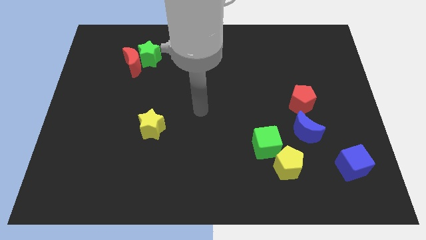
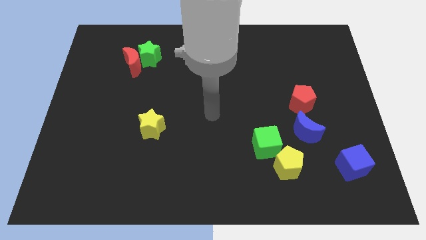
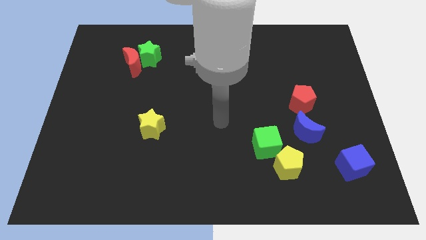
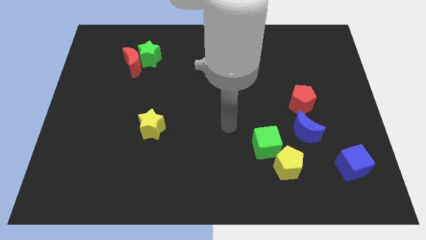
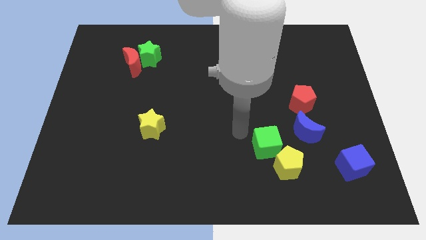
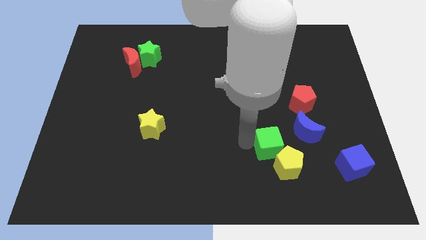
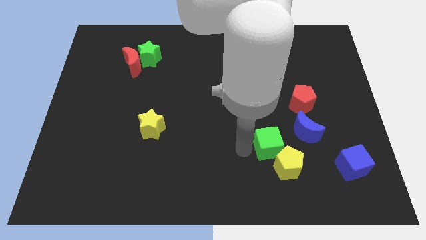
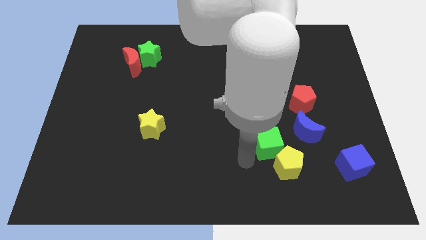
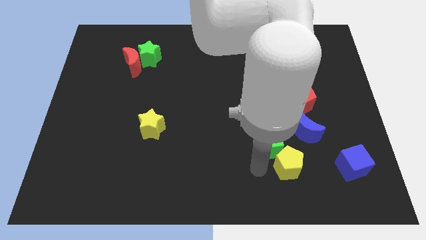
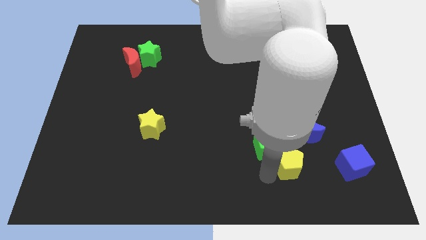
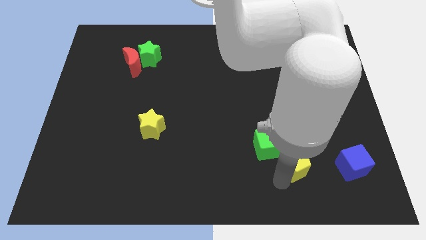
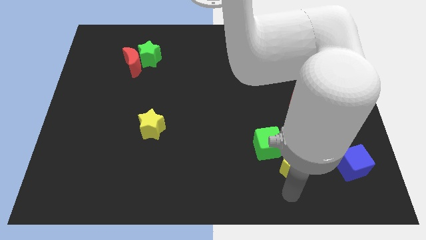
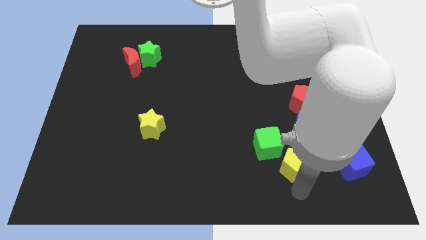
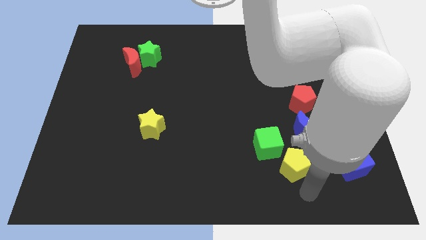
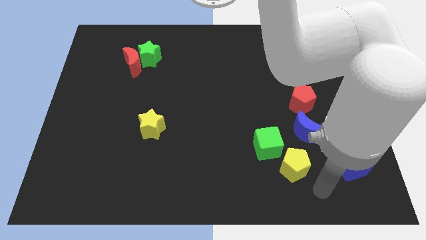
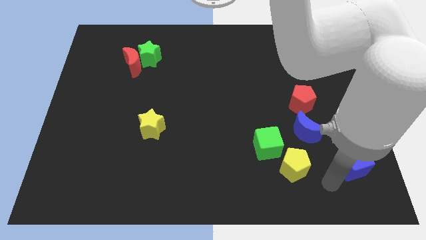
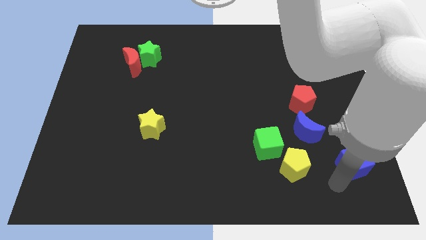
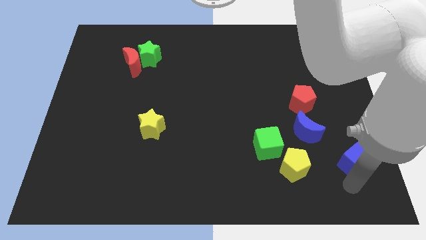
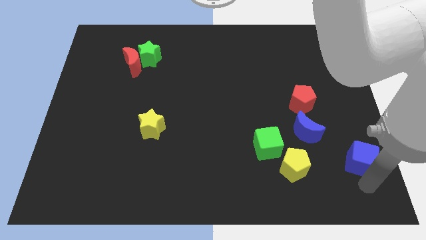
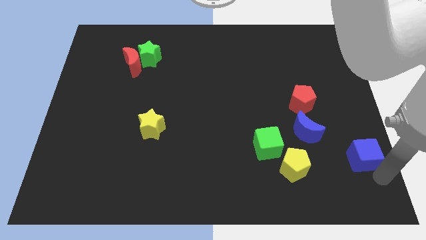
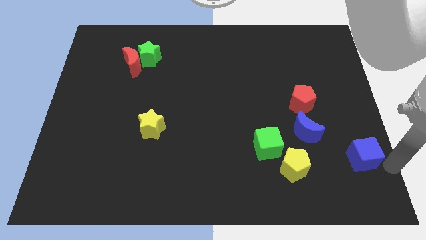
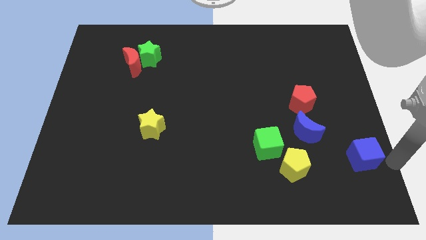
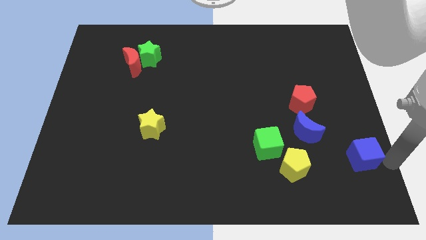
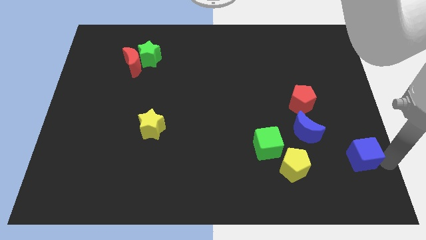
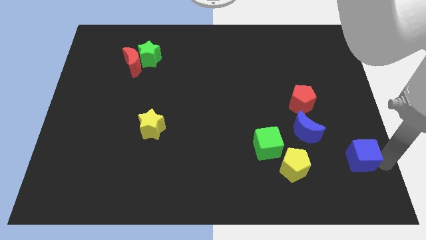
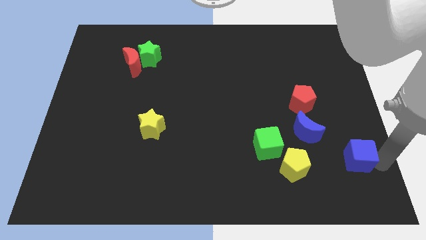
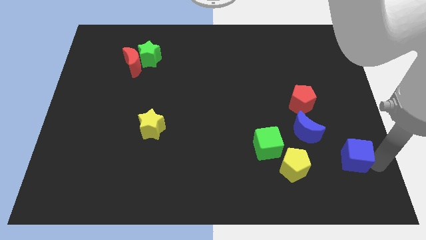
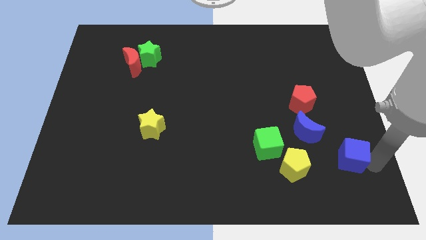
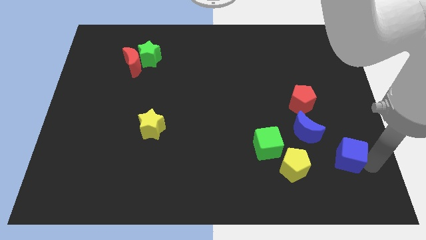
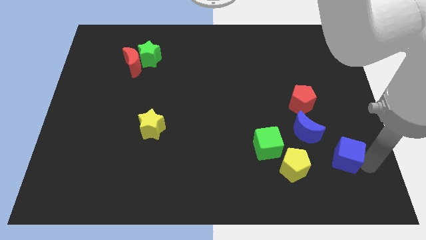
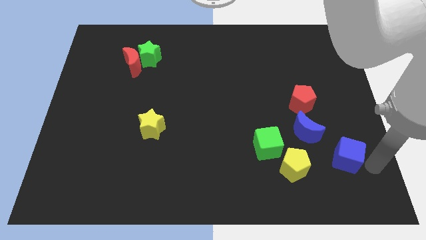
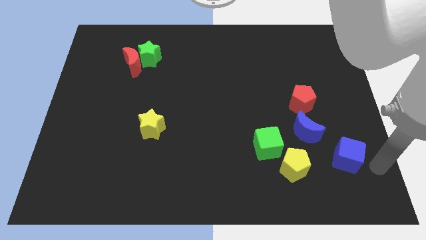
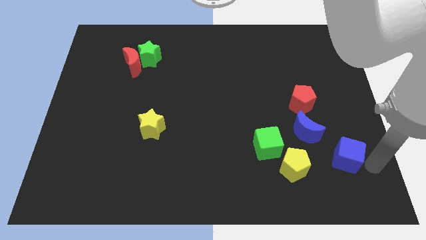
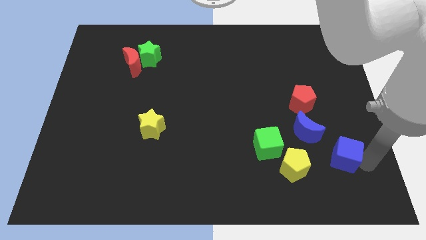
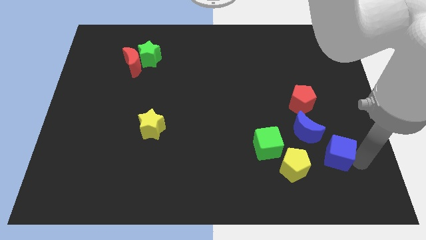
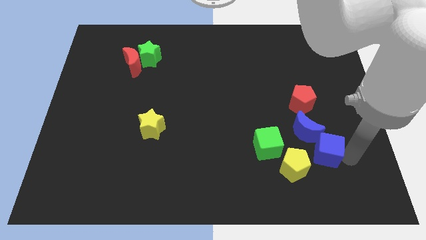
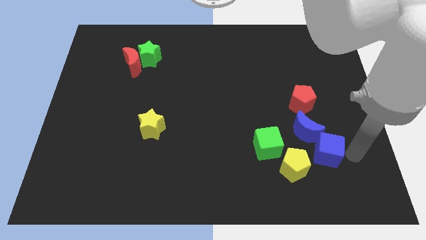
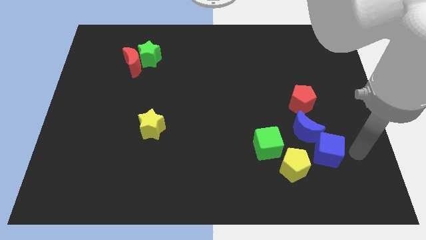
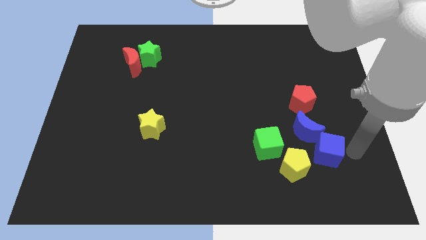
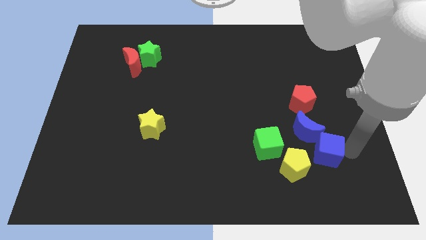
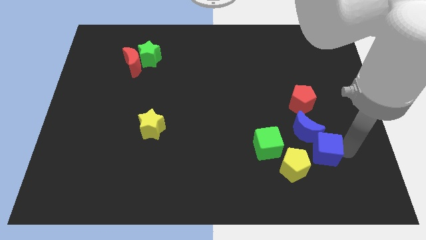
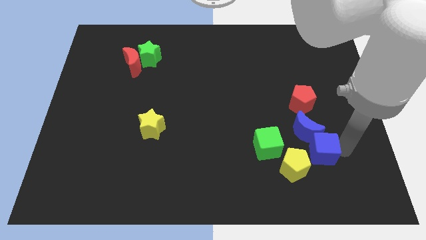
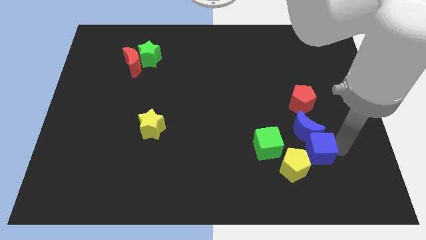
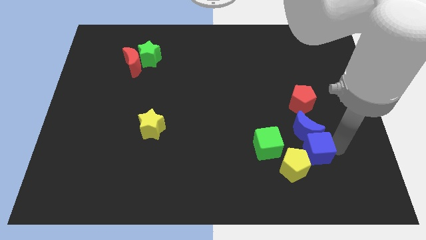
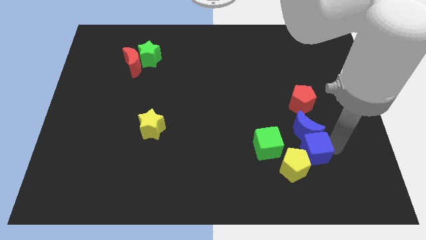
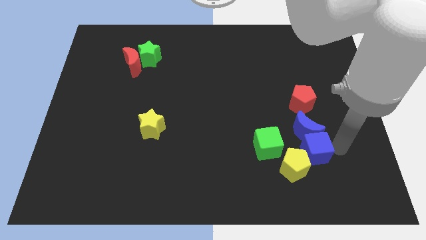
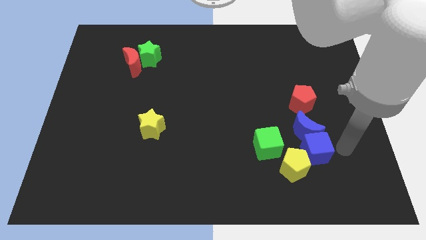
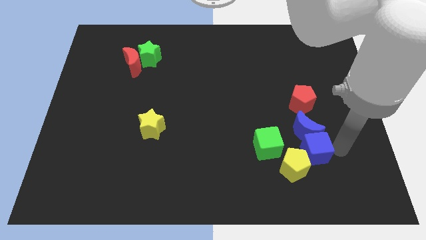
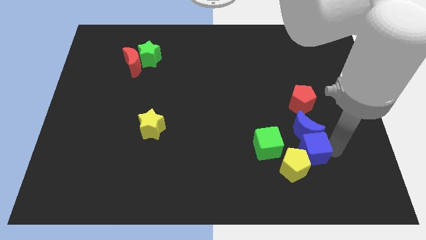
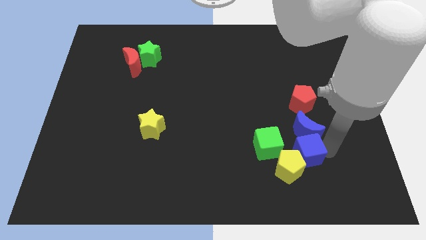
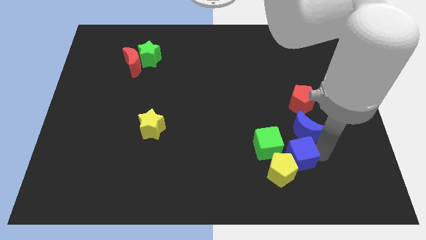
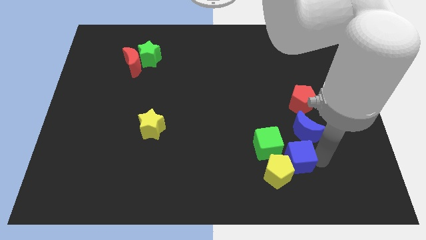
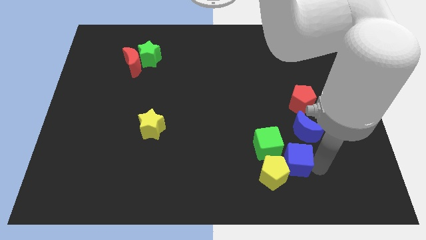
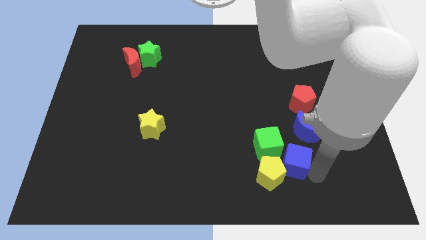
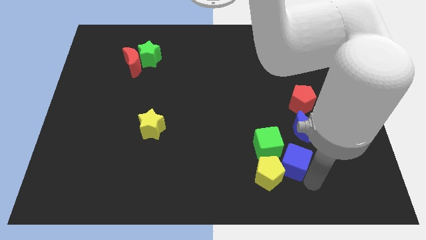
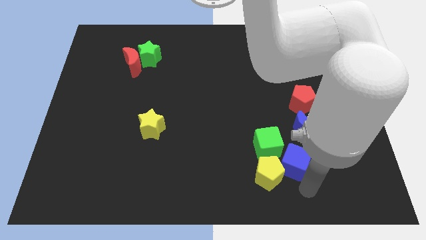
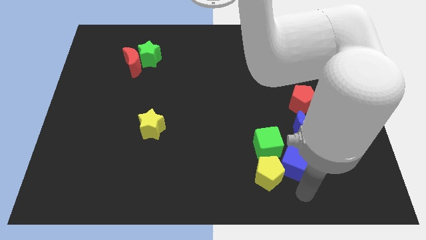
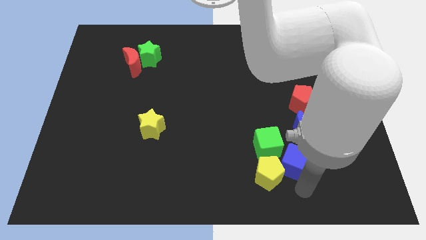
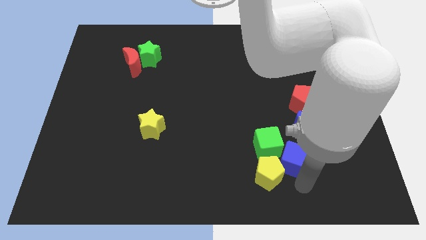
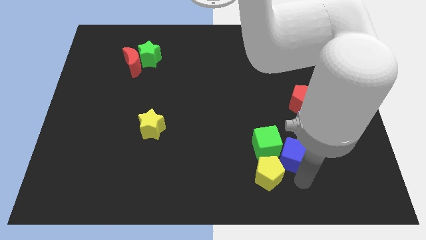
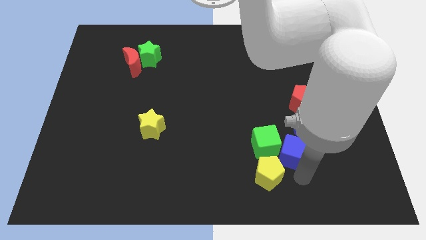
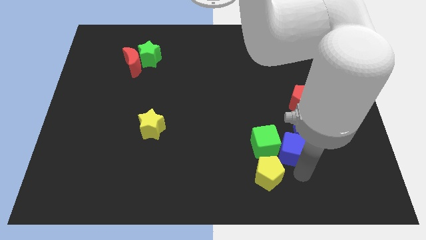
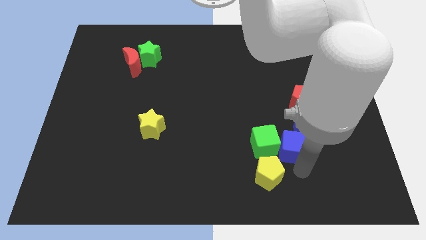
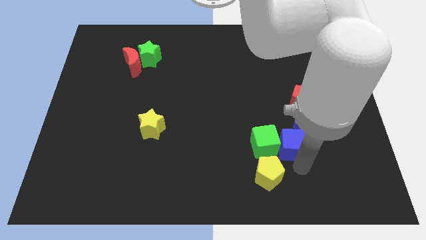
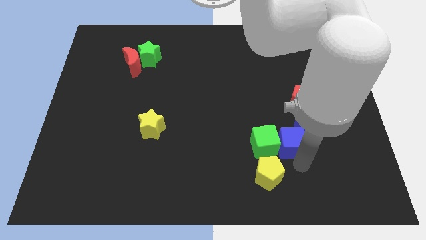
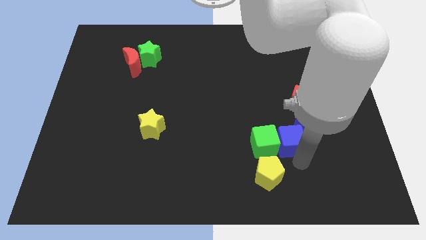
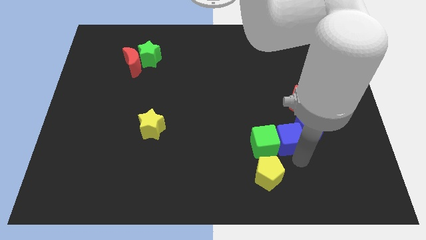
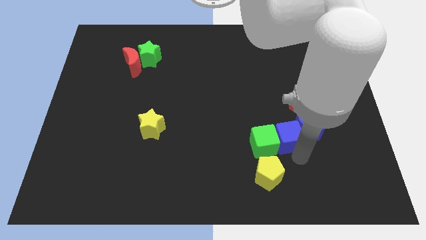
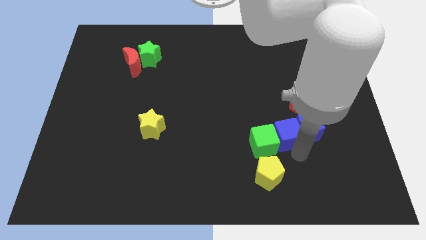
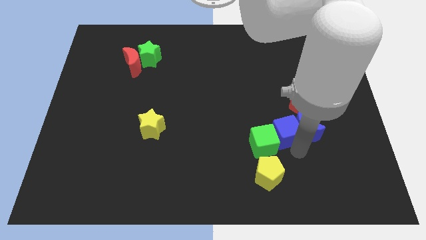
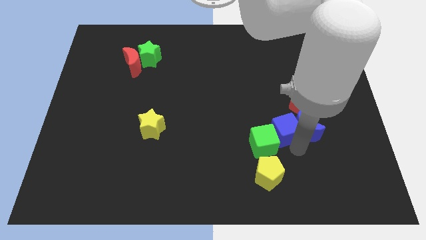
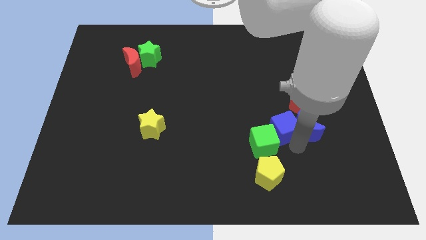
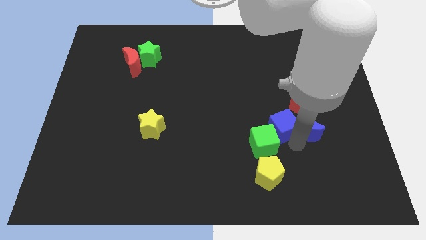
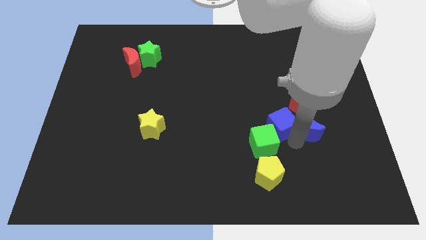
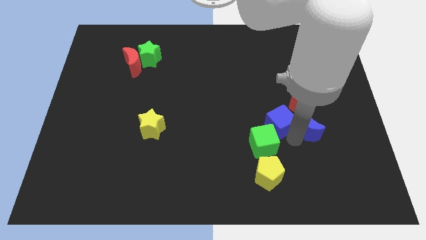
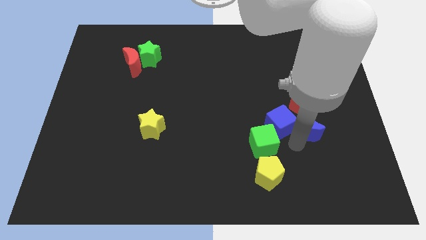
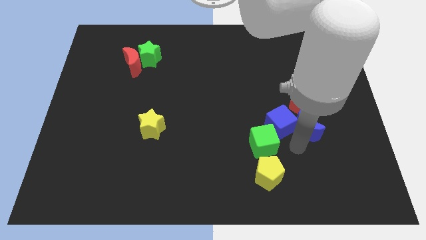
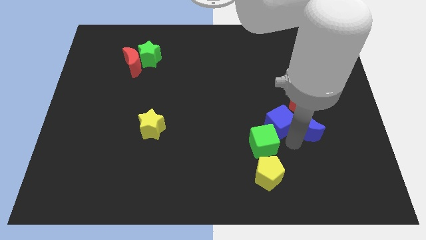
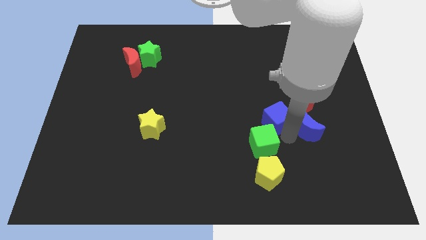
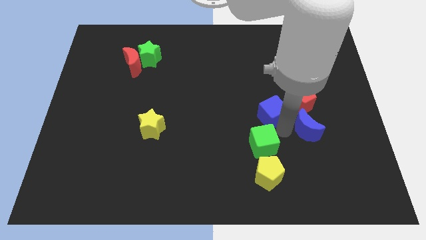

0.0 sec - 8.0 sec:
slide the blue cube upwards and then to the left

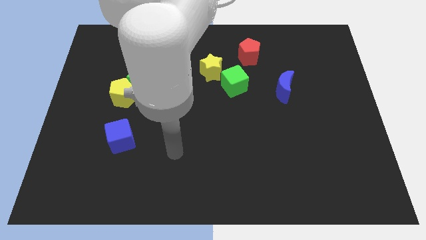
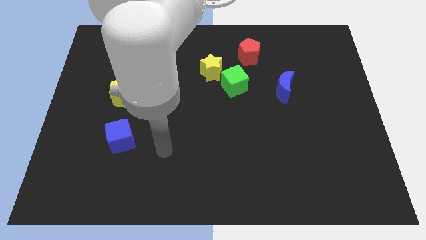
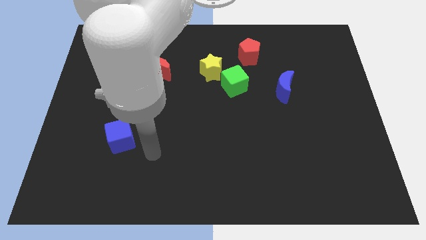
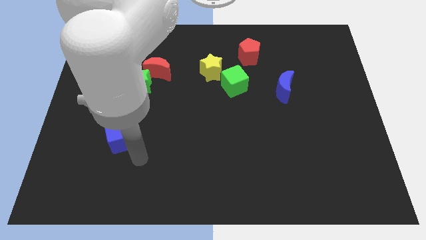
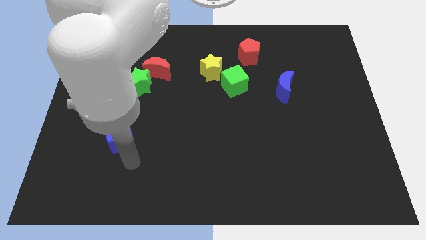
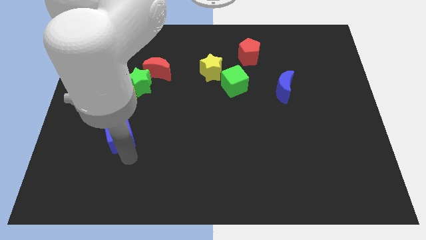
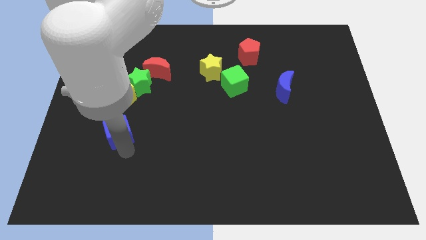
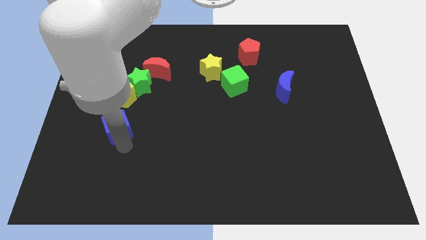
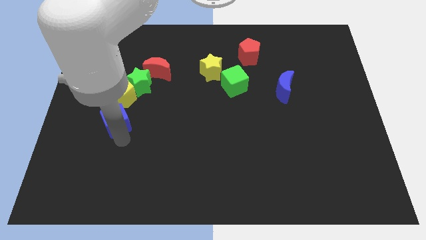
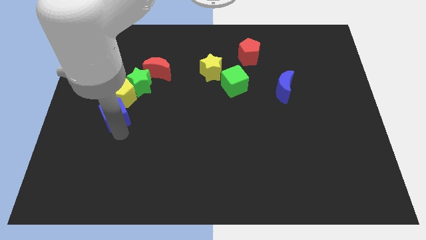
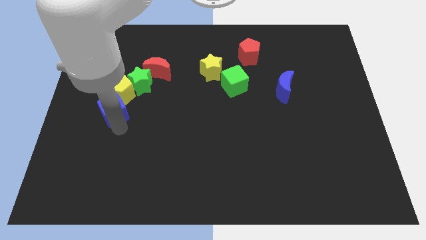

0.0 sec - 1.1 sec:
push the blue cube up a little bit
